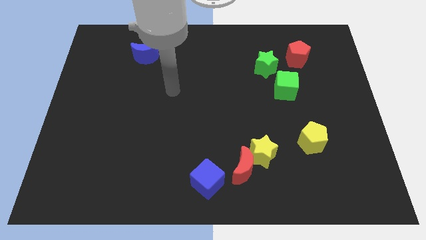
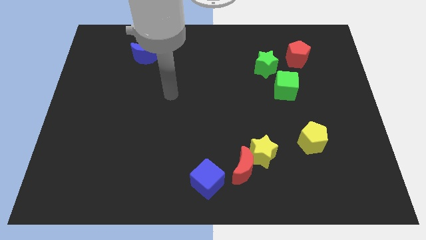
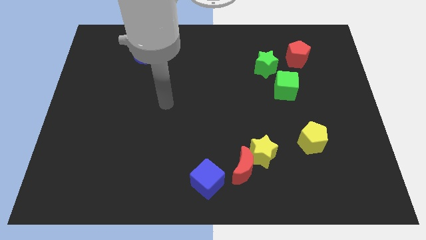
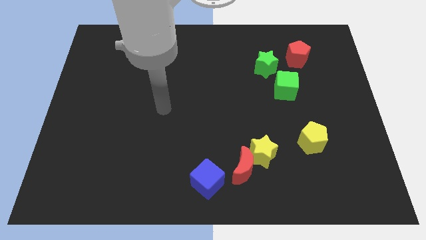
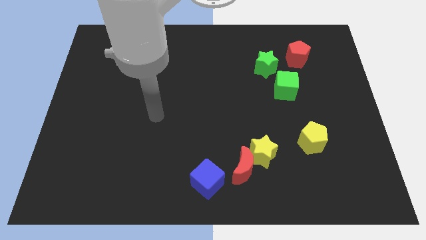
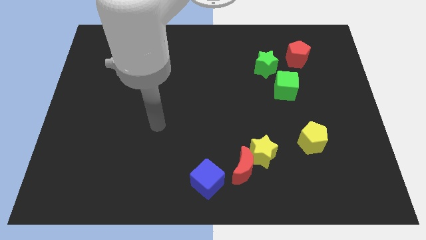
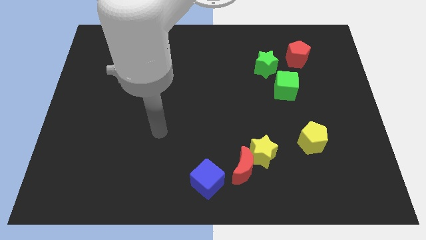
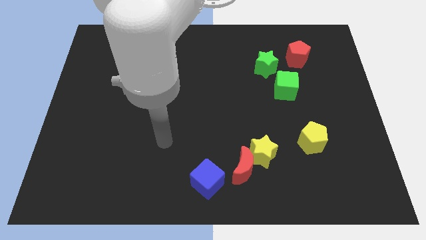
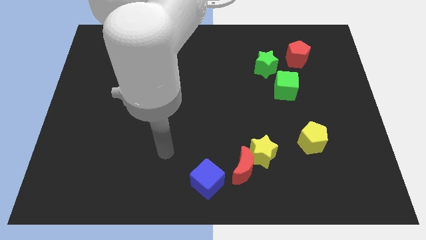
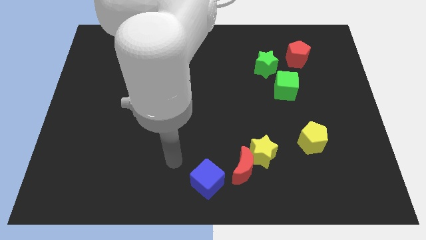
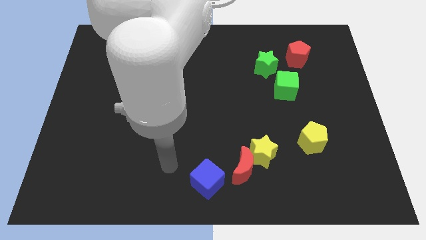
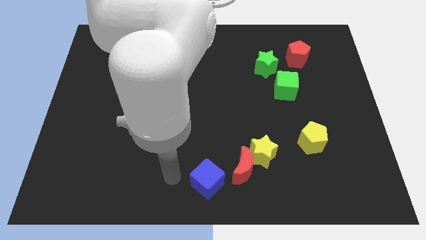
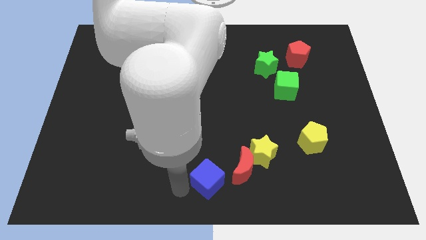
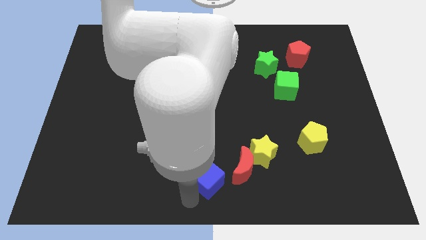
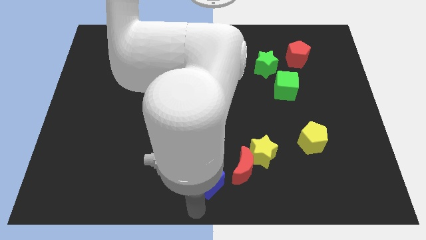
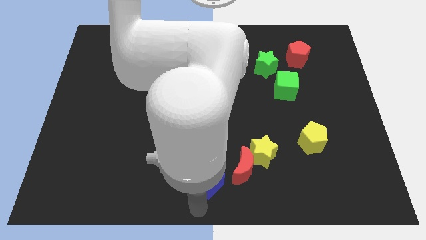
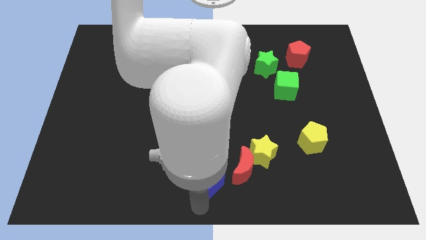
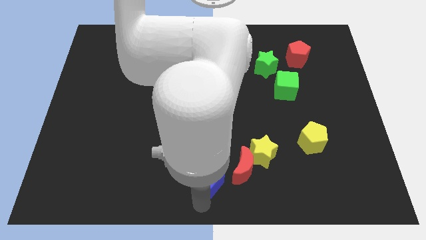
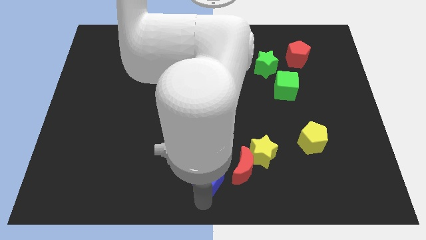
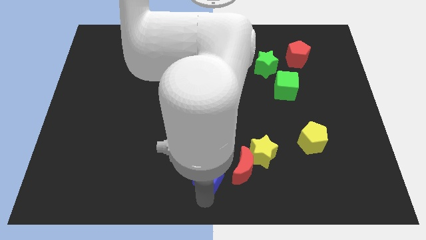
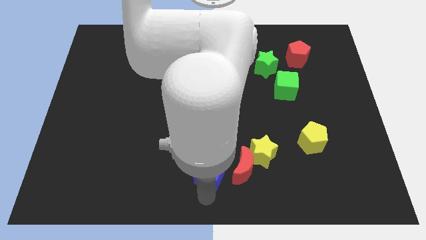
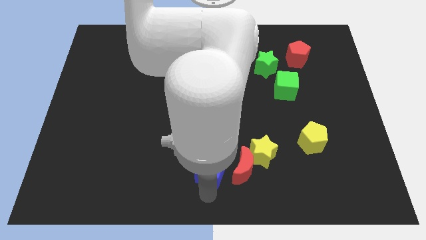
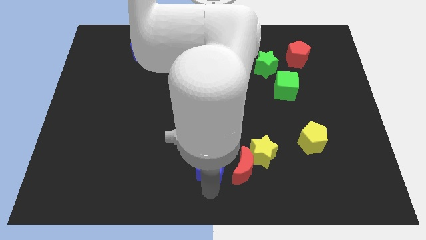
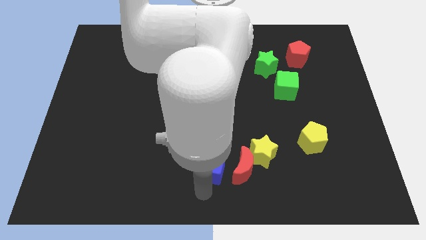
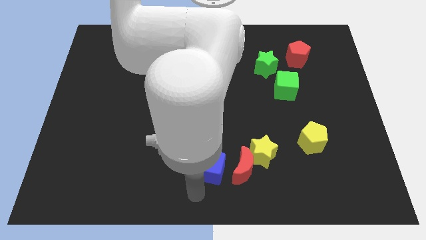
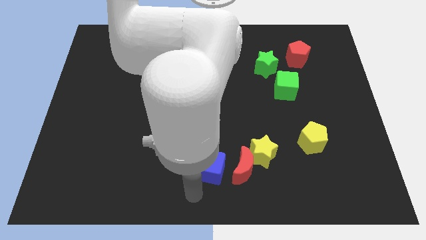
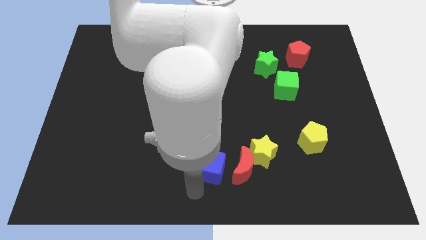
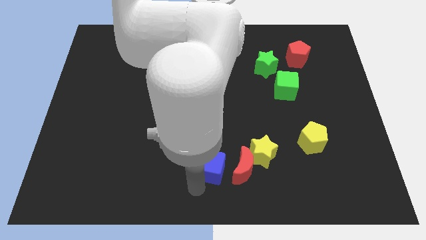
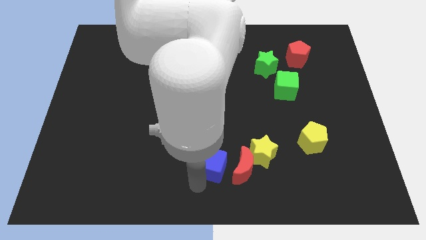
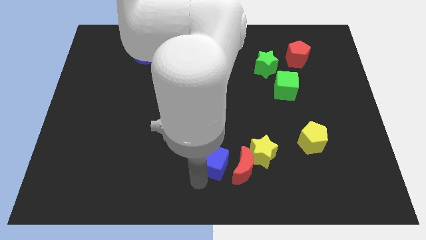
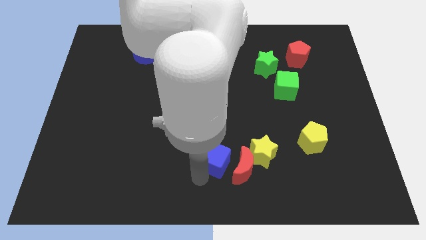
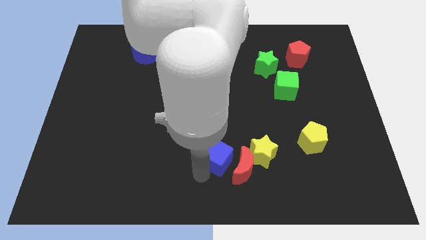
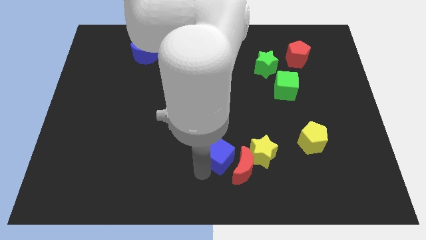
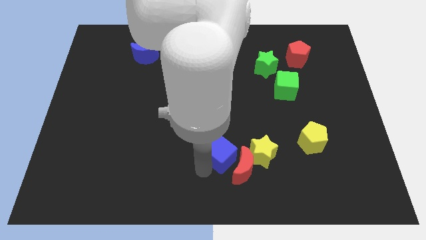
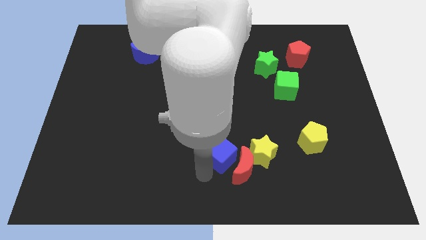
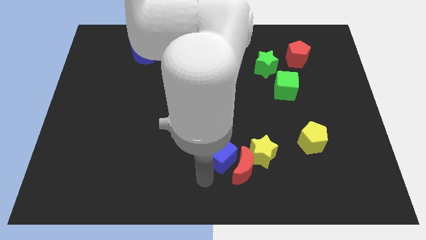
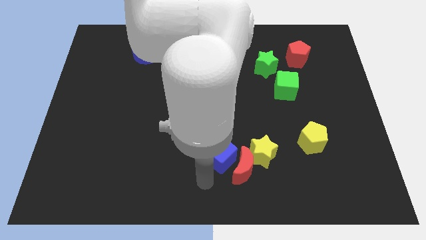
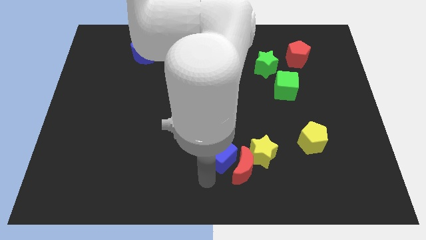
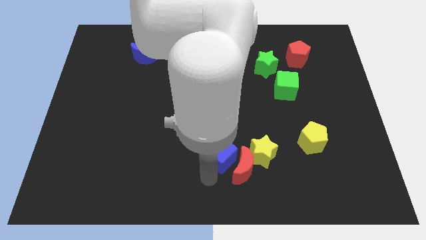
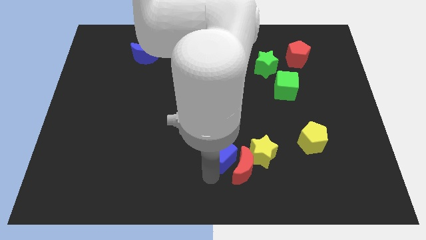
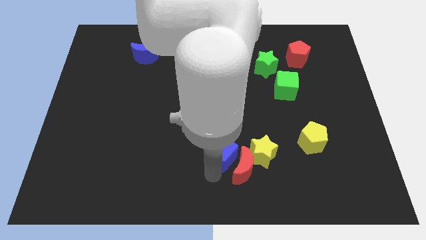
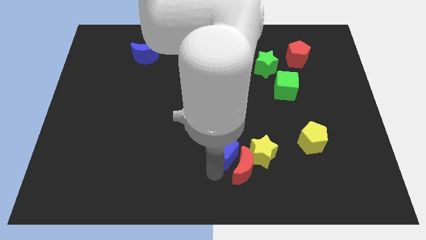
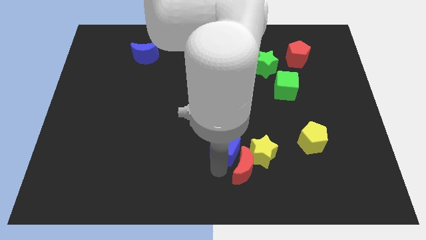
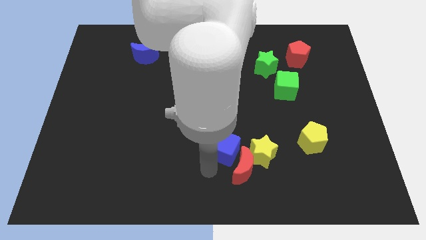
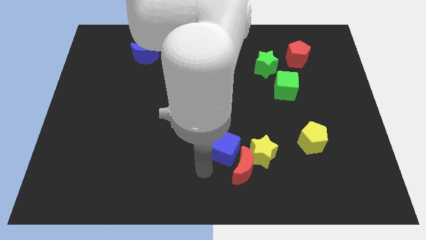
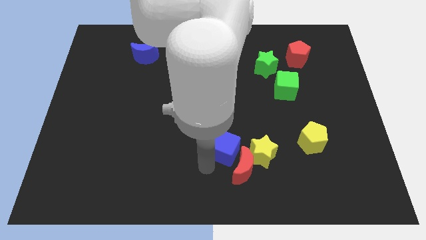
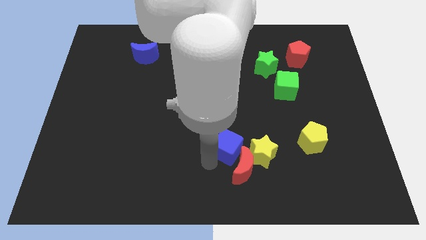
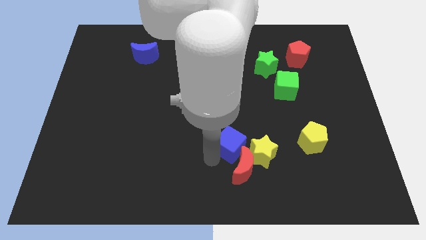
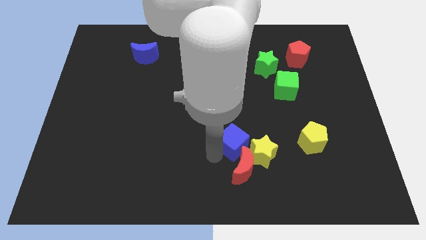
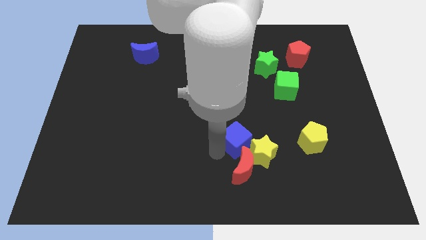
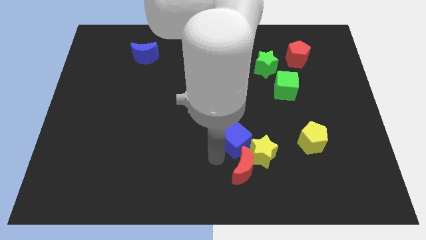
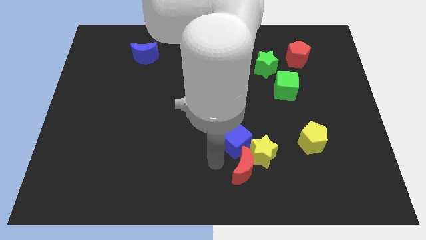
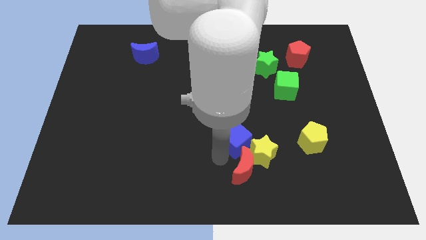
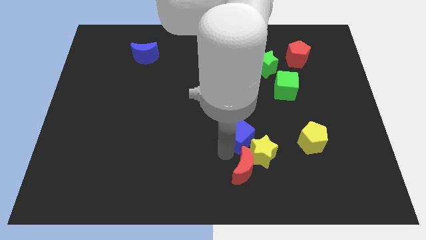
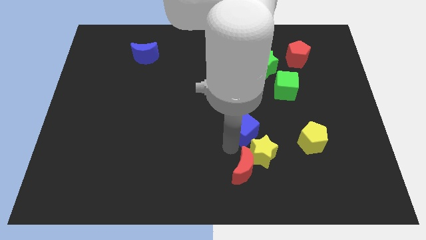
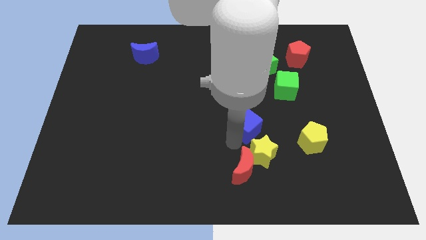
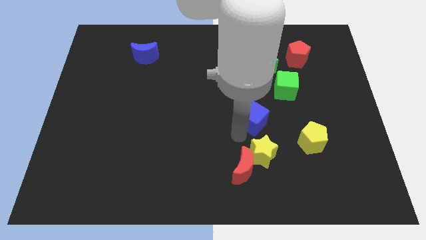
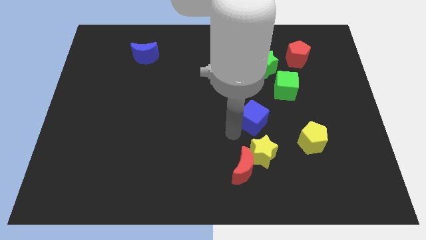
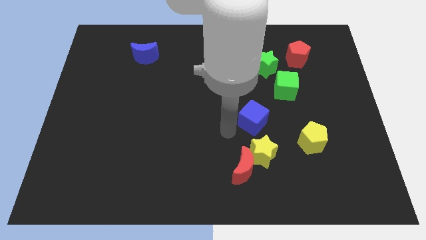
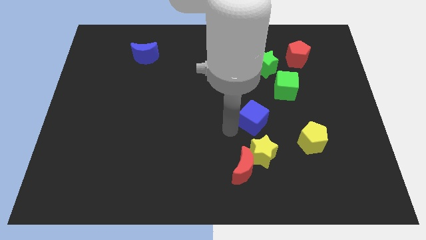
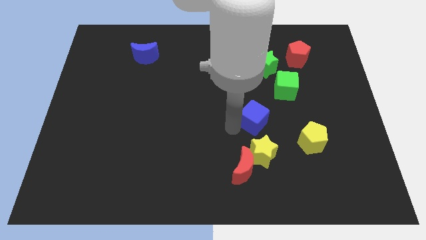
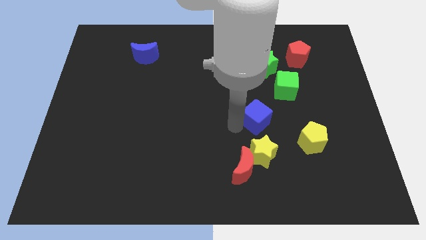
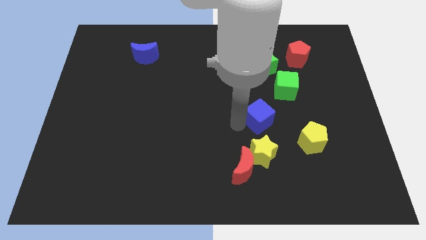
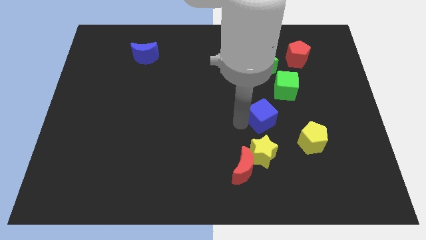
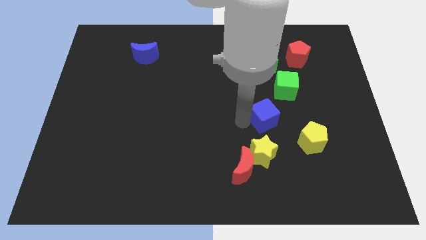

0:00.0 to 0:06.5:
move the blue cube upwards and then right

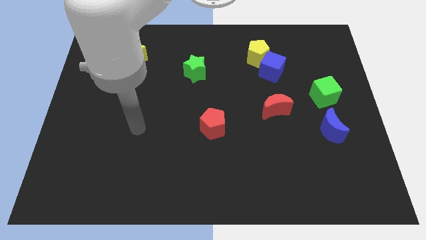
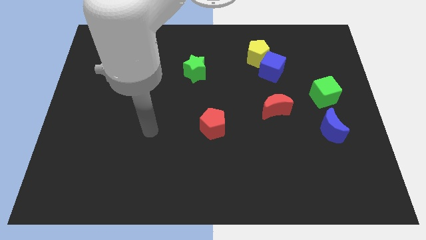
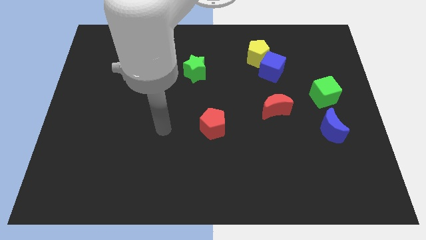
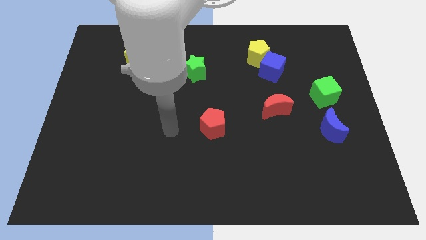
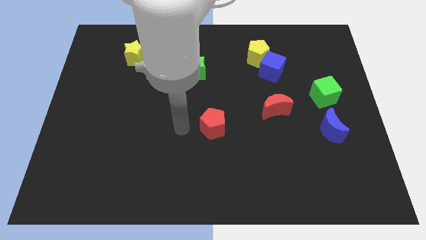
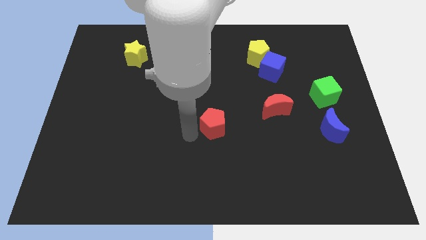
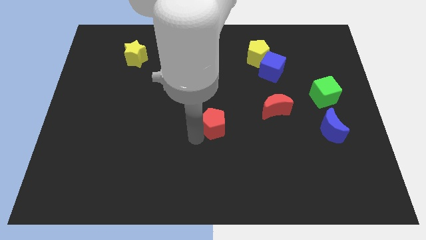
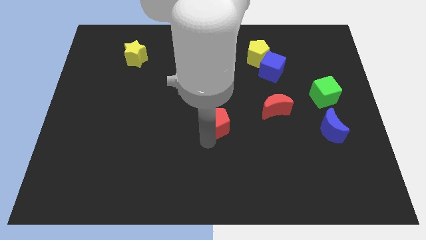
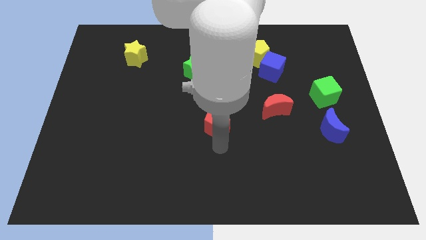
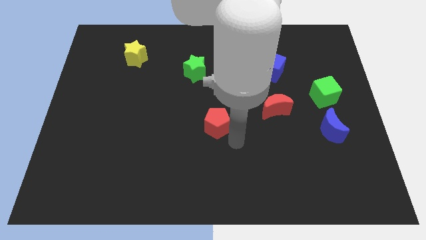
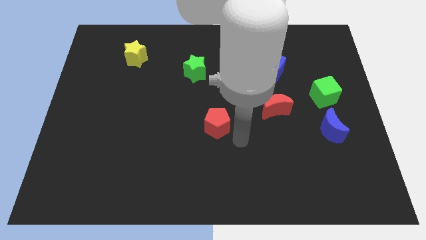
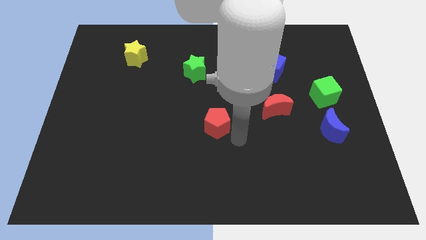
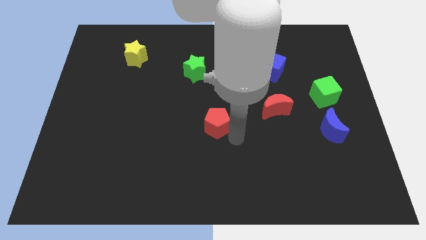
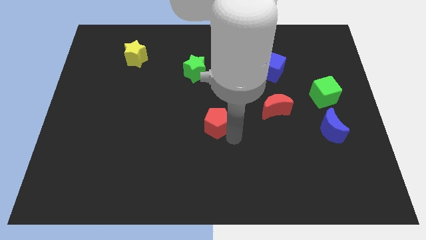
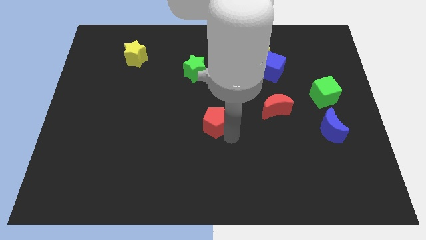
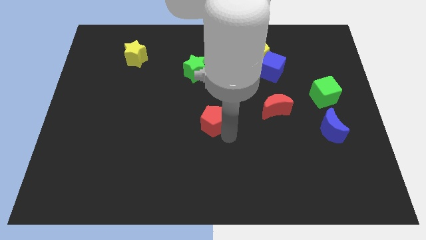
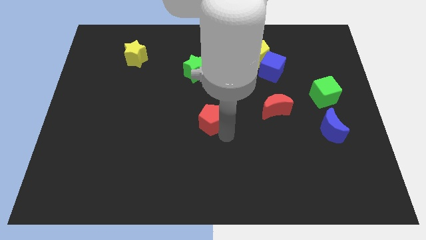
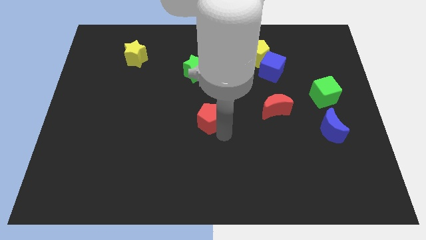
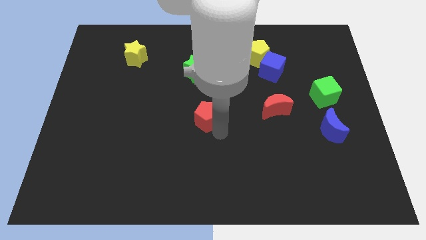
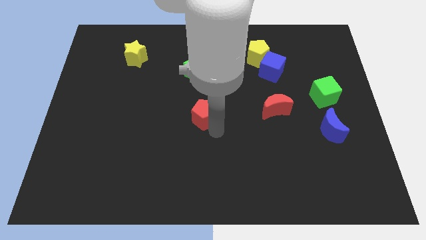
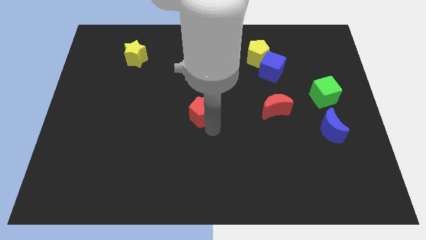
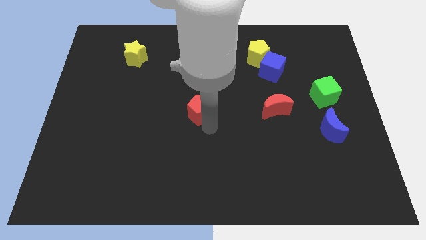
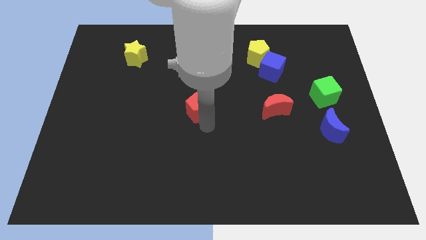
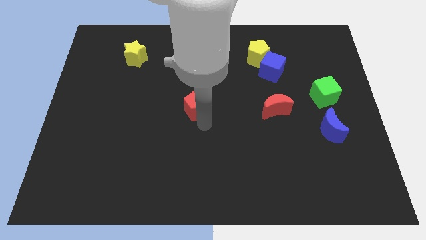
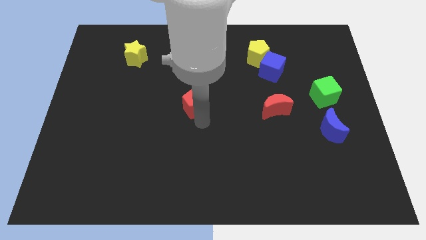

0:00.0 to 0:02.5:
push the red pentagon a bit up and then left
